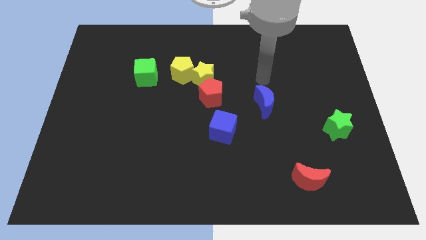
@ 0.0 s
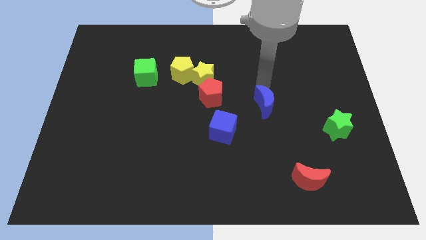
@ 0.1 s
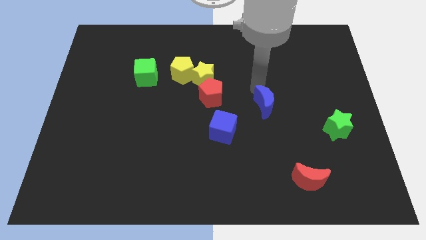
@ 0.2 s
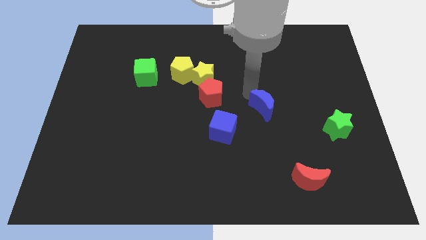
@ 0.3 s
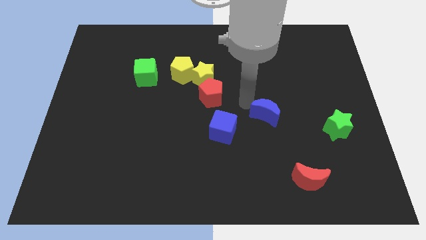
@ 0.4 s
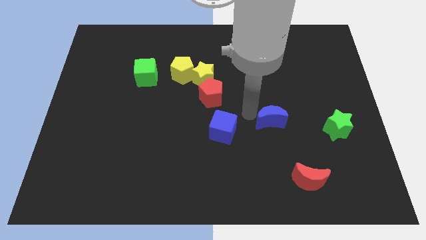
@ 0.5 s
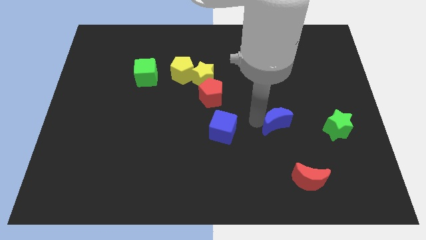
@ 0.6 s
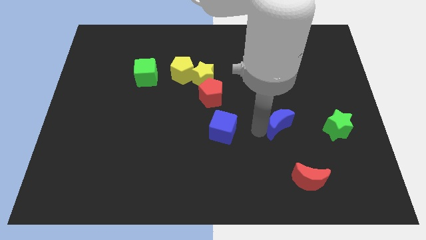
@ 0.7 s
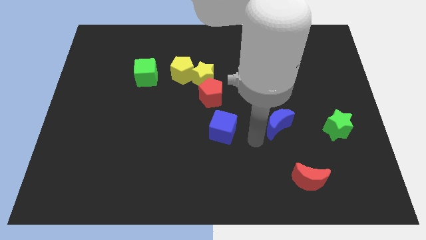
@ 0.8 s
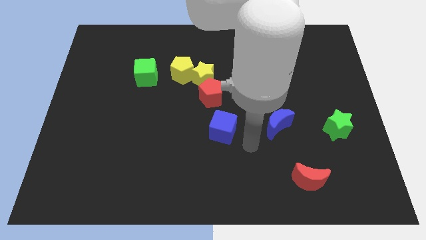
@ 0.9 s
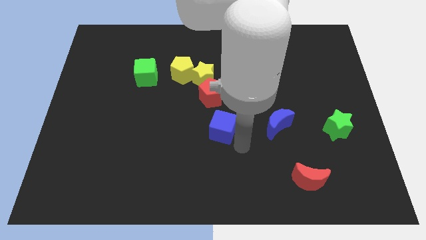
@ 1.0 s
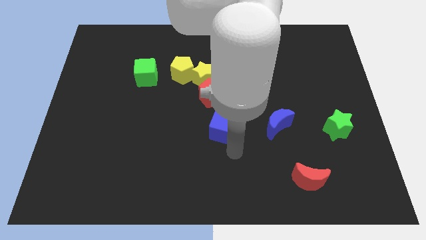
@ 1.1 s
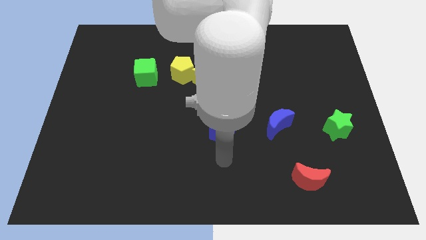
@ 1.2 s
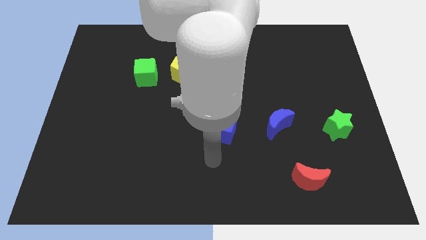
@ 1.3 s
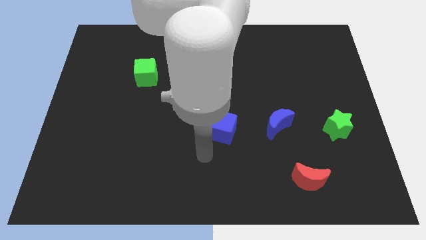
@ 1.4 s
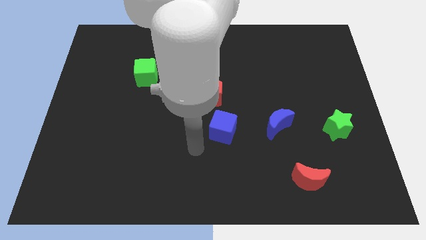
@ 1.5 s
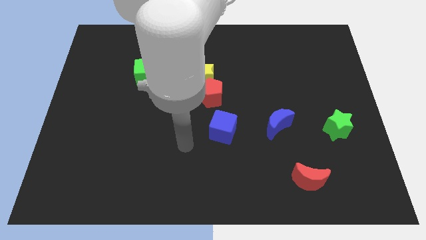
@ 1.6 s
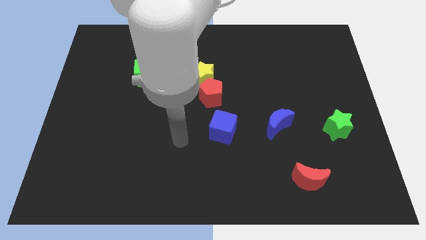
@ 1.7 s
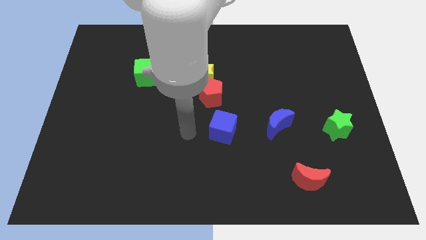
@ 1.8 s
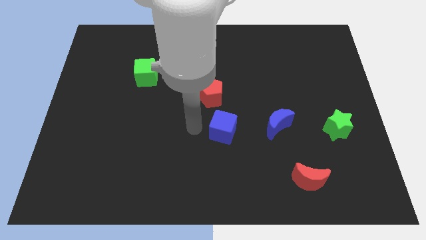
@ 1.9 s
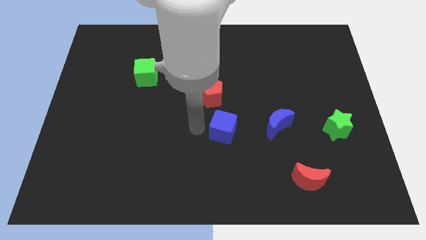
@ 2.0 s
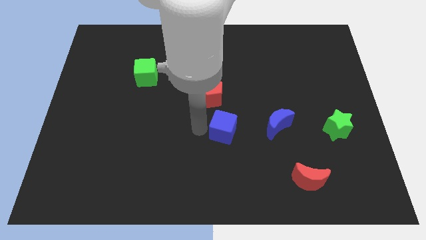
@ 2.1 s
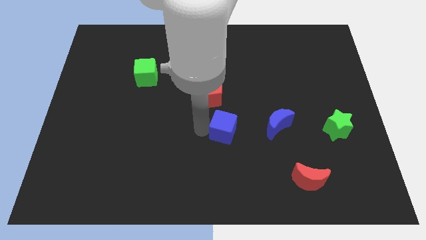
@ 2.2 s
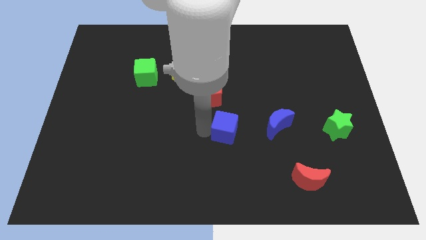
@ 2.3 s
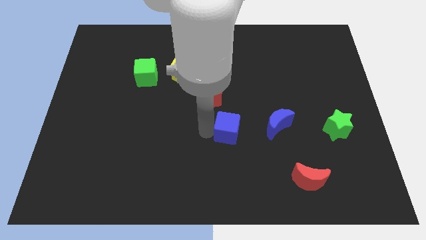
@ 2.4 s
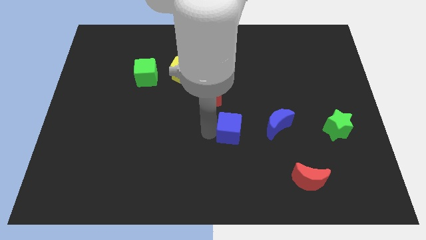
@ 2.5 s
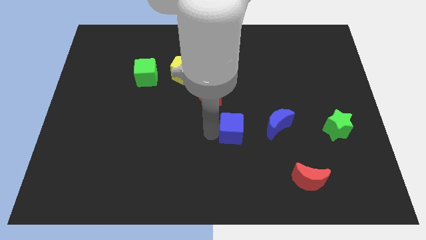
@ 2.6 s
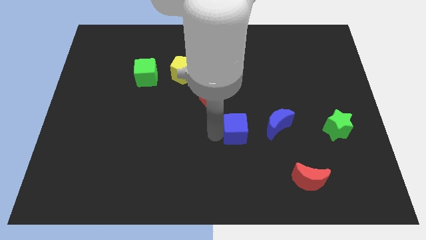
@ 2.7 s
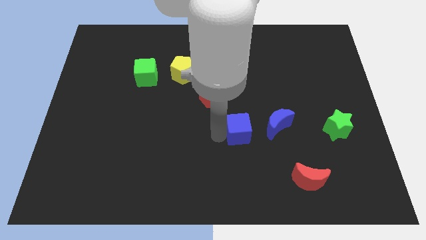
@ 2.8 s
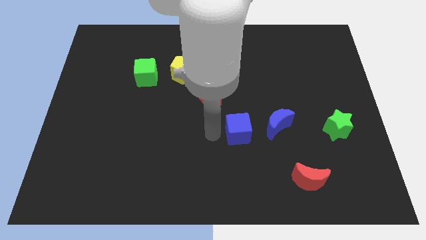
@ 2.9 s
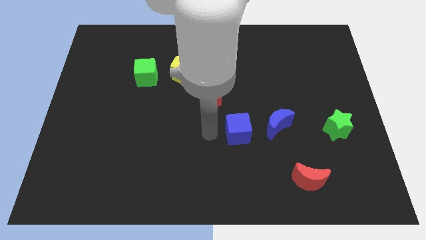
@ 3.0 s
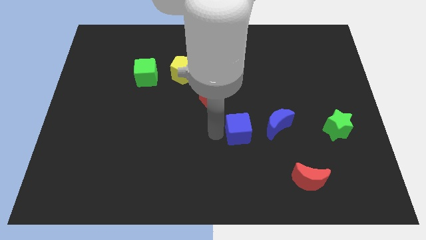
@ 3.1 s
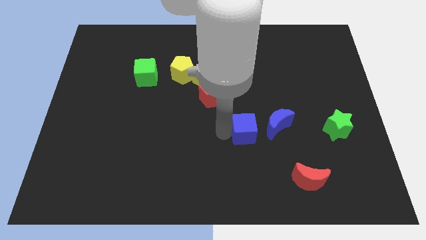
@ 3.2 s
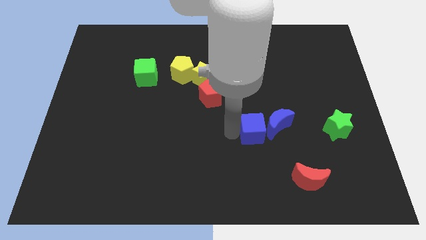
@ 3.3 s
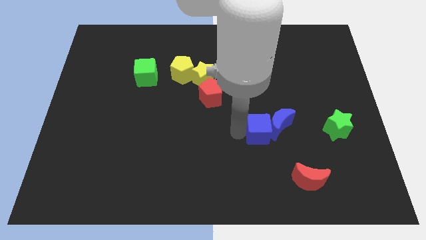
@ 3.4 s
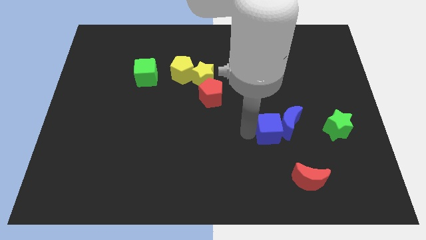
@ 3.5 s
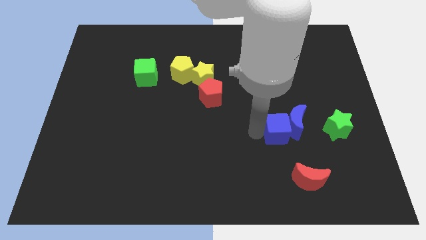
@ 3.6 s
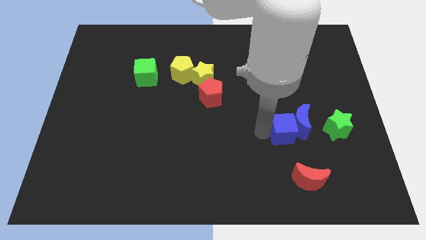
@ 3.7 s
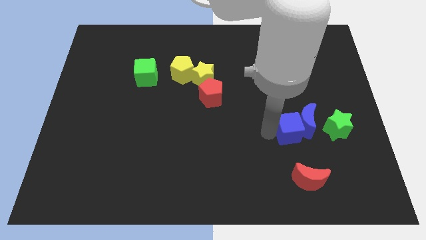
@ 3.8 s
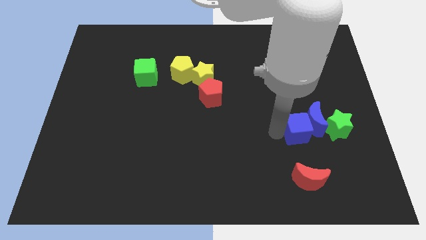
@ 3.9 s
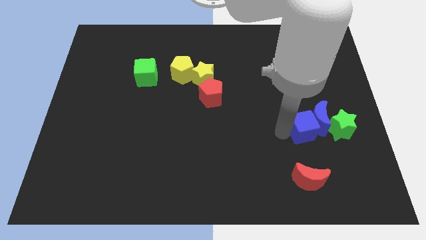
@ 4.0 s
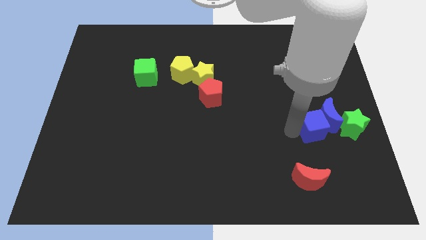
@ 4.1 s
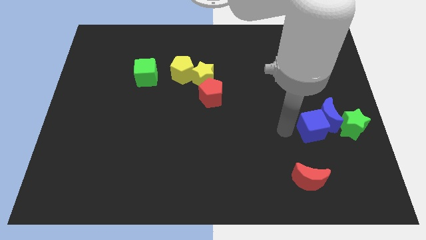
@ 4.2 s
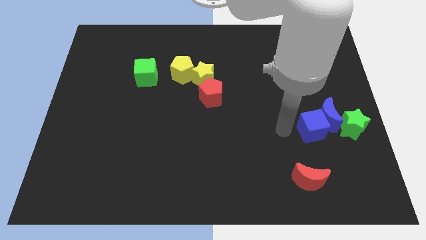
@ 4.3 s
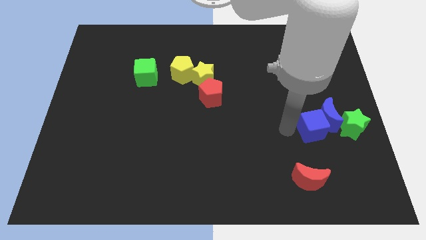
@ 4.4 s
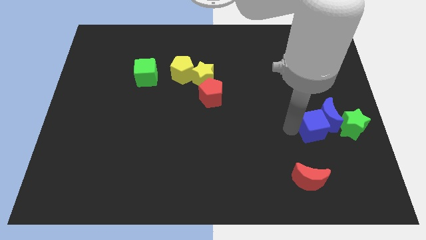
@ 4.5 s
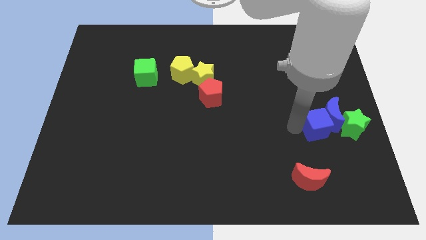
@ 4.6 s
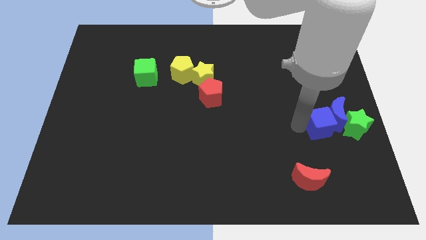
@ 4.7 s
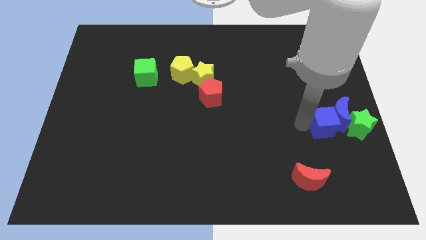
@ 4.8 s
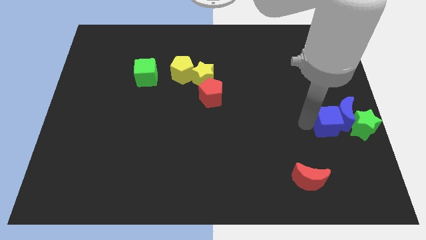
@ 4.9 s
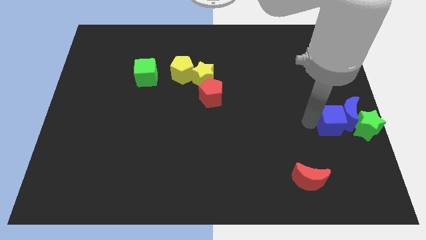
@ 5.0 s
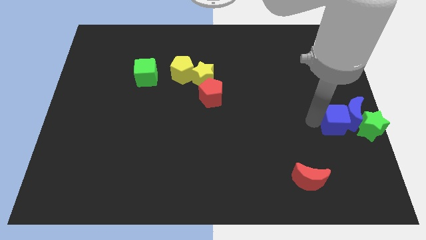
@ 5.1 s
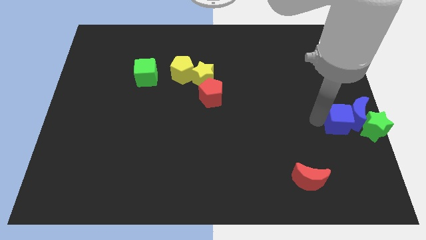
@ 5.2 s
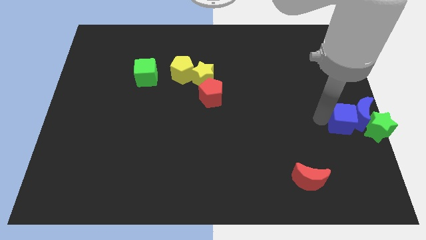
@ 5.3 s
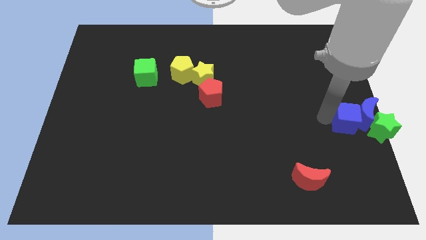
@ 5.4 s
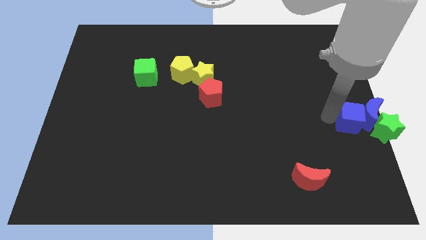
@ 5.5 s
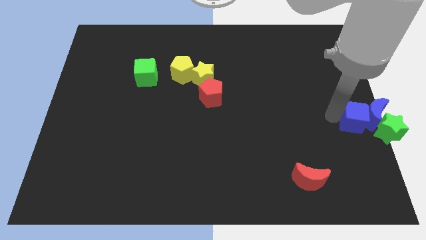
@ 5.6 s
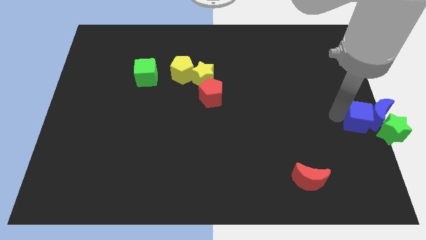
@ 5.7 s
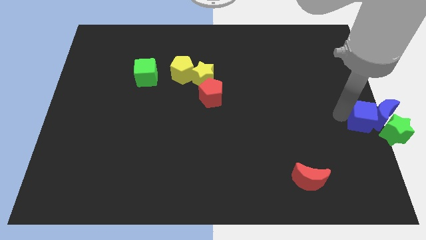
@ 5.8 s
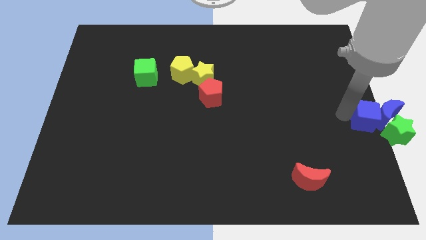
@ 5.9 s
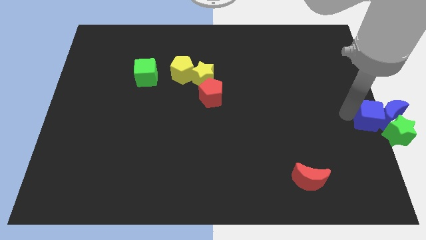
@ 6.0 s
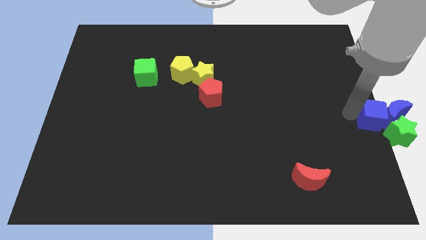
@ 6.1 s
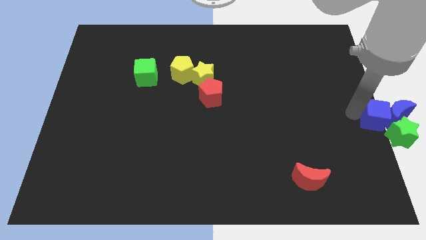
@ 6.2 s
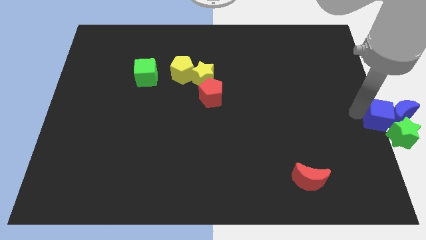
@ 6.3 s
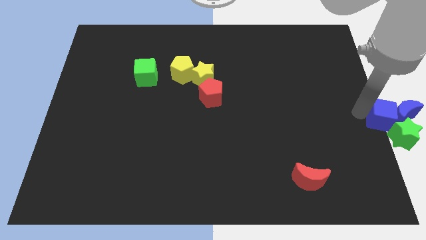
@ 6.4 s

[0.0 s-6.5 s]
put the blue cube to the green star

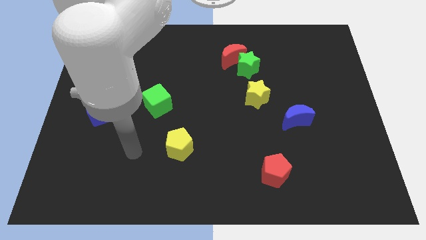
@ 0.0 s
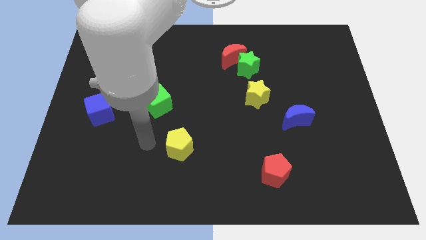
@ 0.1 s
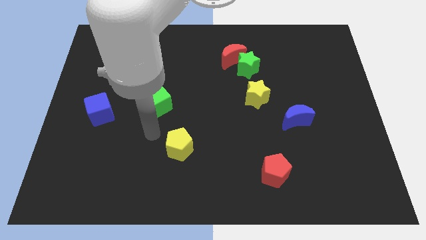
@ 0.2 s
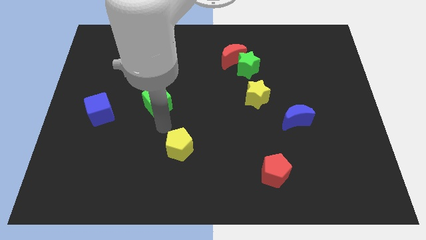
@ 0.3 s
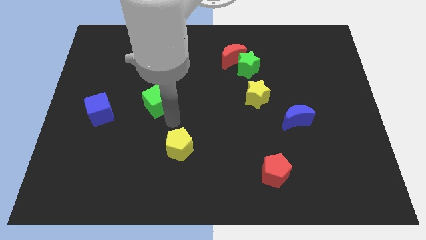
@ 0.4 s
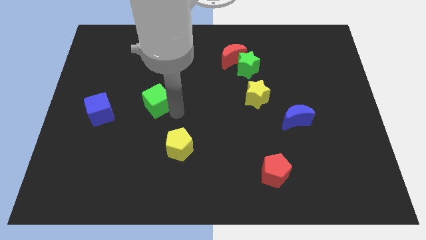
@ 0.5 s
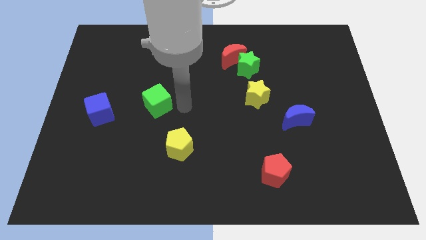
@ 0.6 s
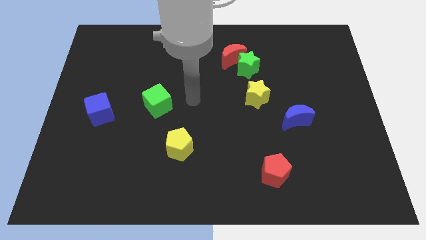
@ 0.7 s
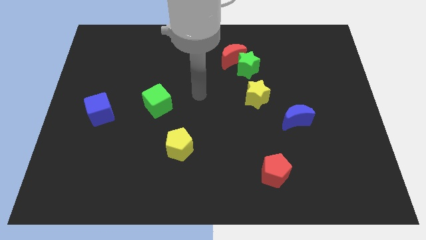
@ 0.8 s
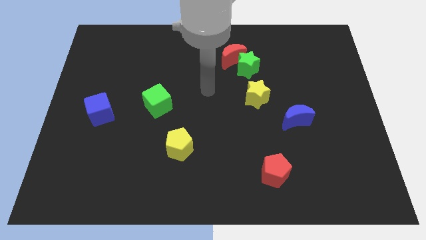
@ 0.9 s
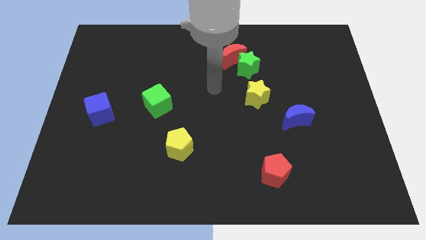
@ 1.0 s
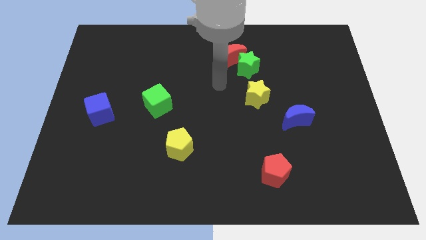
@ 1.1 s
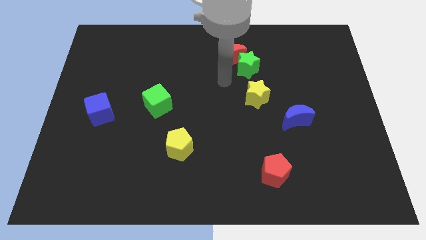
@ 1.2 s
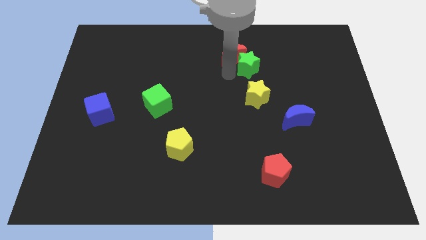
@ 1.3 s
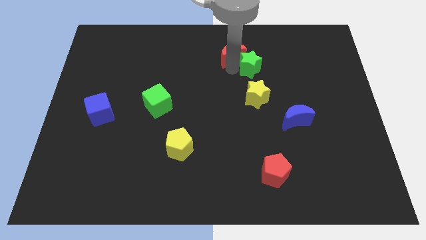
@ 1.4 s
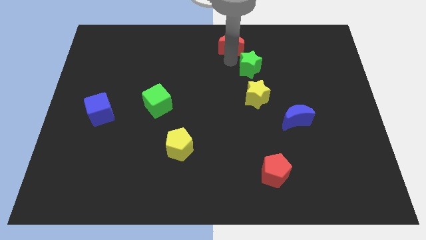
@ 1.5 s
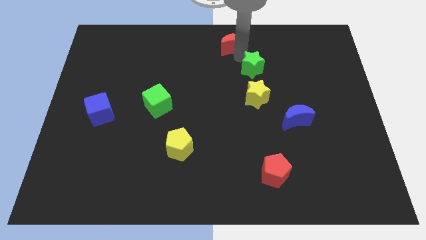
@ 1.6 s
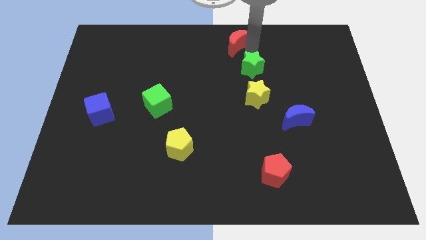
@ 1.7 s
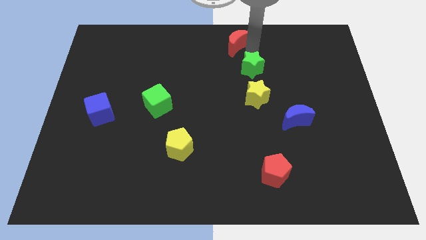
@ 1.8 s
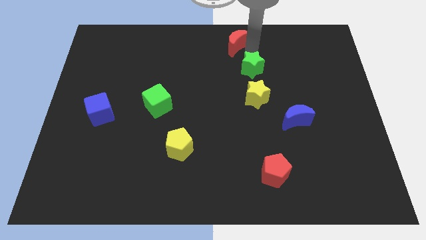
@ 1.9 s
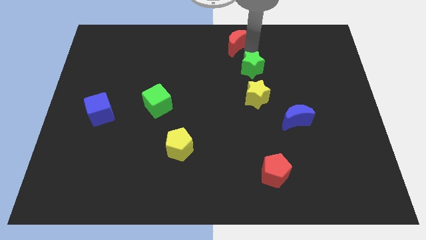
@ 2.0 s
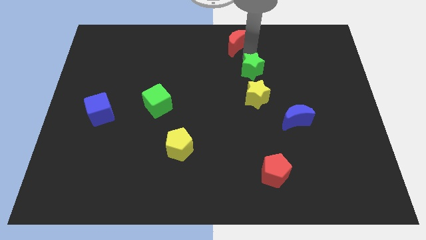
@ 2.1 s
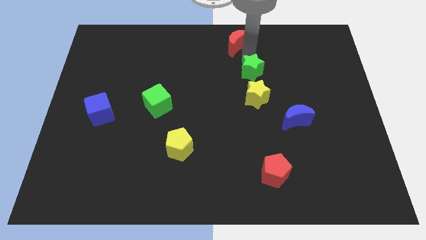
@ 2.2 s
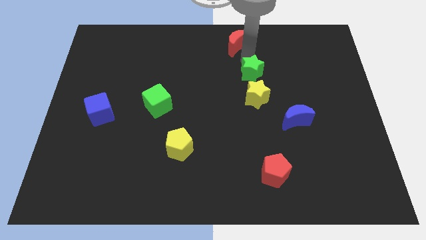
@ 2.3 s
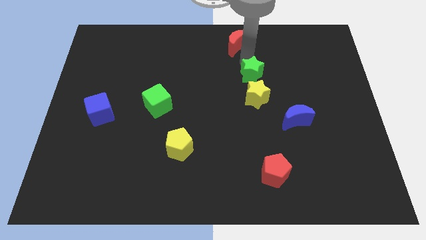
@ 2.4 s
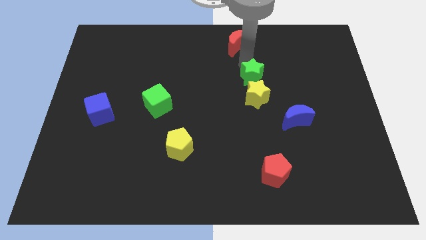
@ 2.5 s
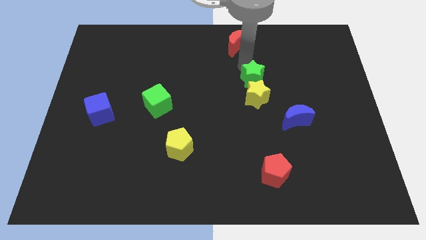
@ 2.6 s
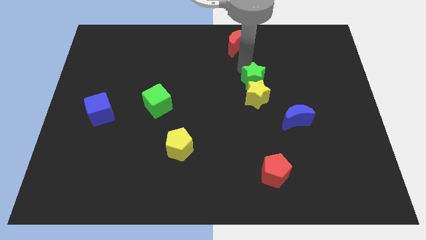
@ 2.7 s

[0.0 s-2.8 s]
put the green star next to the yellow star
